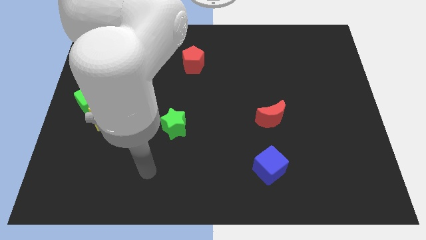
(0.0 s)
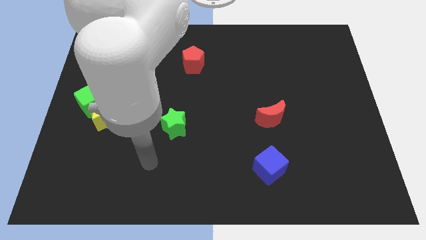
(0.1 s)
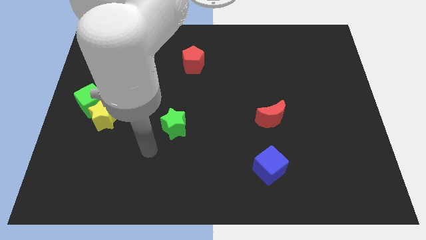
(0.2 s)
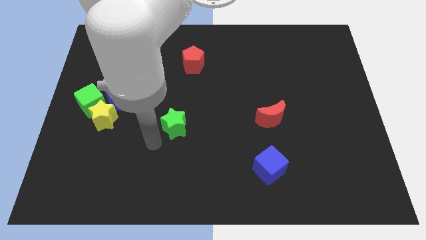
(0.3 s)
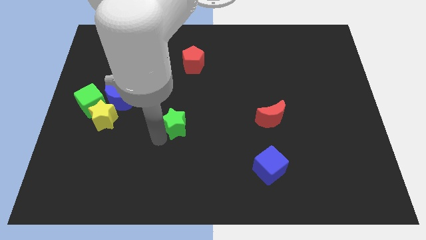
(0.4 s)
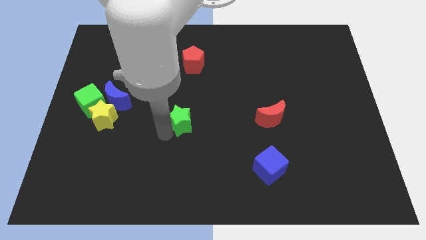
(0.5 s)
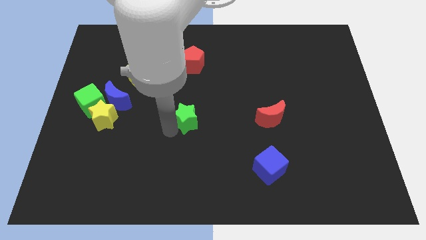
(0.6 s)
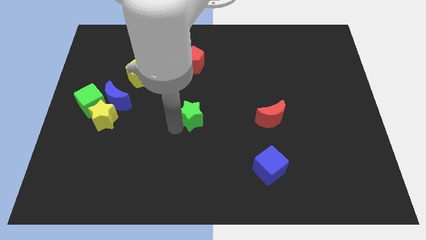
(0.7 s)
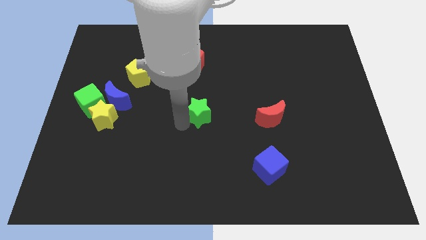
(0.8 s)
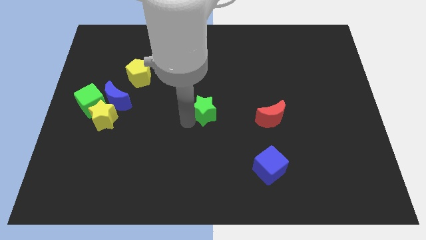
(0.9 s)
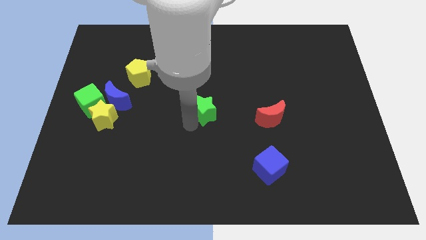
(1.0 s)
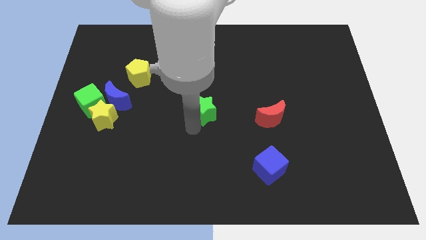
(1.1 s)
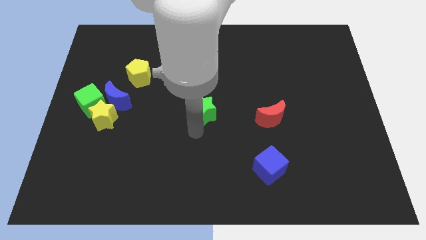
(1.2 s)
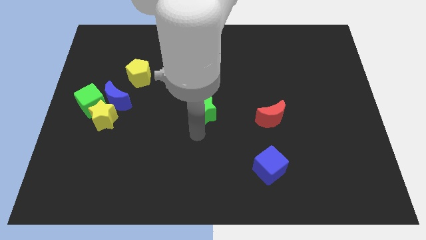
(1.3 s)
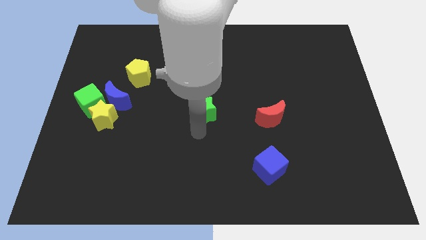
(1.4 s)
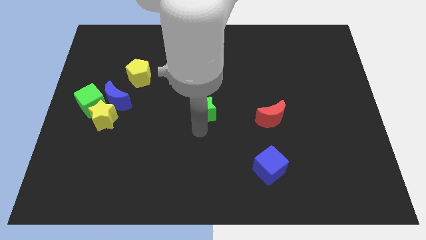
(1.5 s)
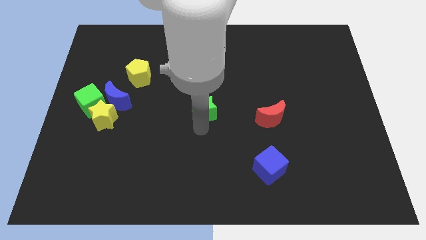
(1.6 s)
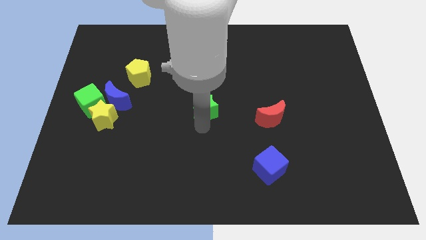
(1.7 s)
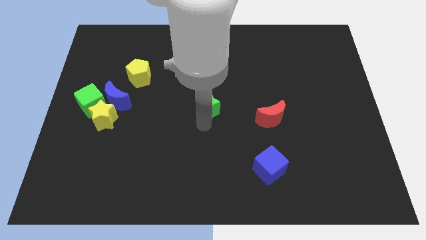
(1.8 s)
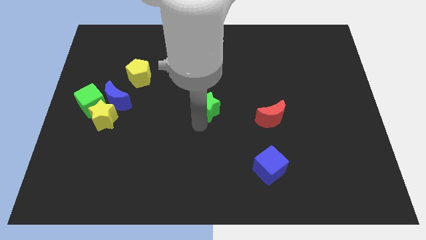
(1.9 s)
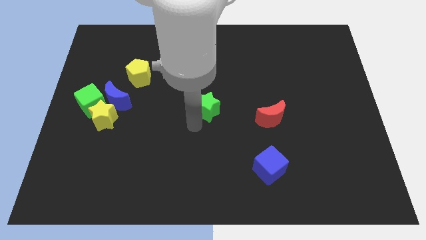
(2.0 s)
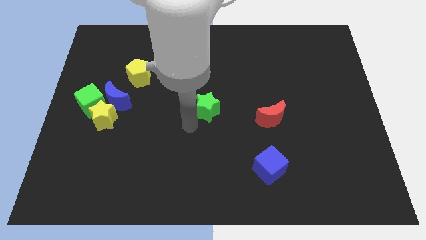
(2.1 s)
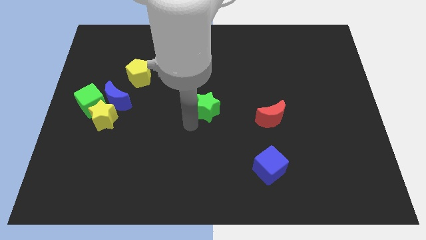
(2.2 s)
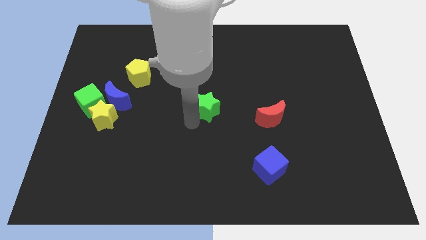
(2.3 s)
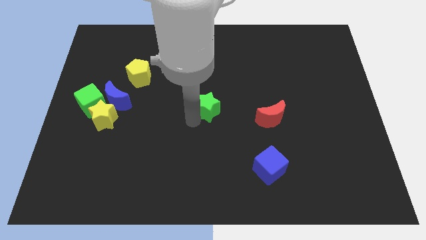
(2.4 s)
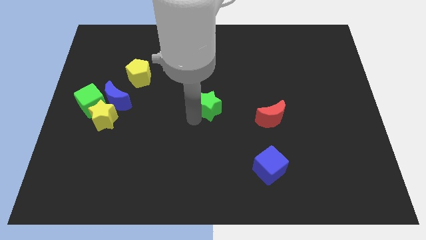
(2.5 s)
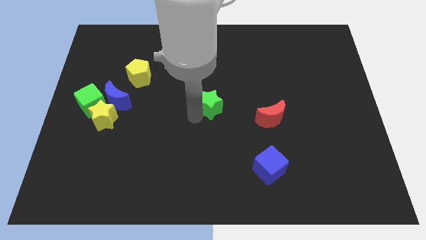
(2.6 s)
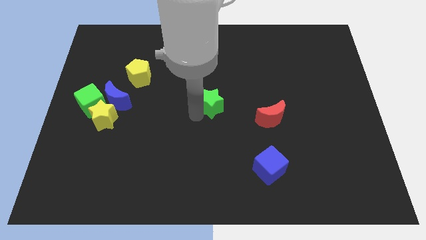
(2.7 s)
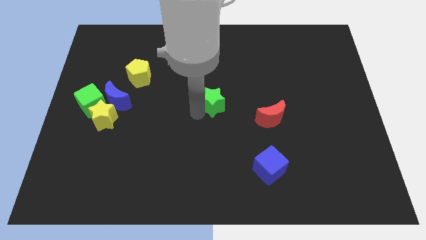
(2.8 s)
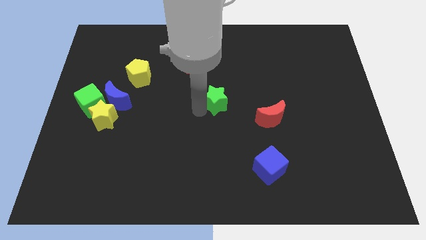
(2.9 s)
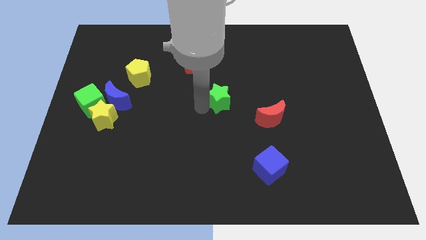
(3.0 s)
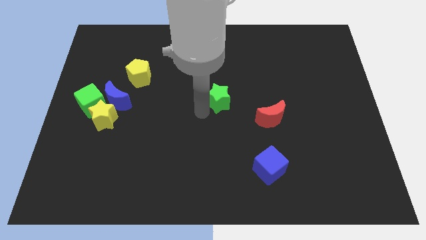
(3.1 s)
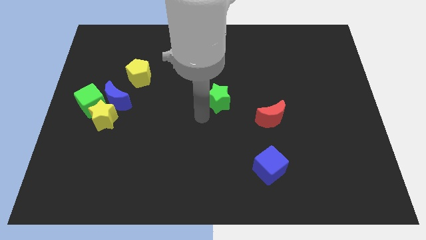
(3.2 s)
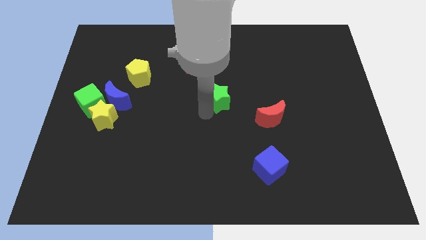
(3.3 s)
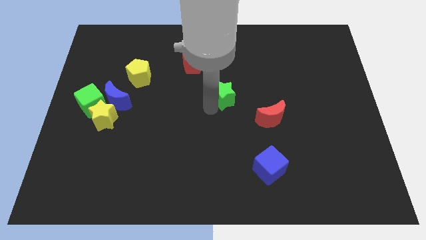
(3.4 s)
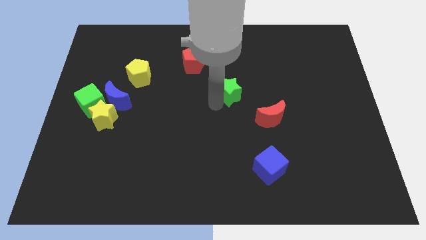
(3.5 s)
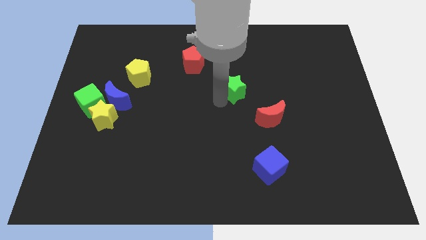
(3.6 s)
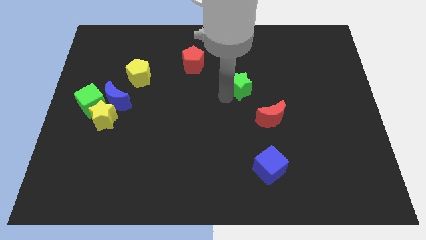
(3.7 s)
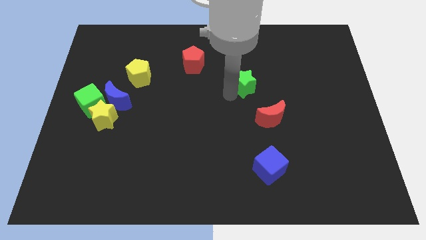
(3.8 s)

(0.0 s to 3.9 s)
slide the green star upwards and right diagonally

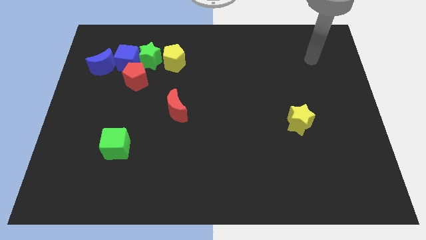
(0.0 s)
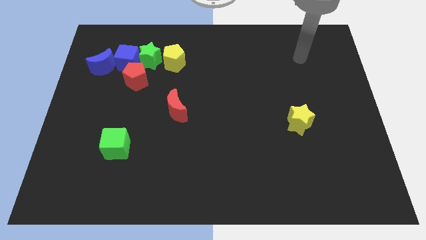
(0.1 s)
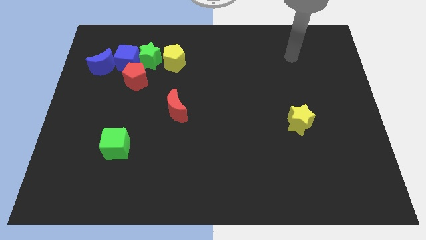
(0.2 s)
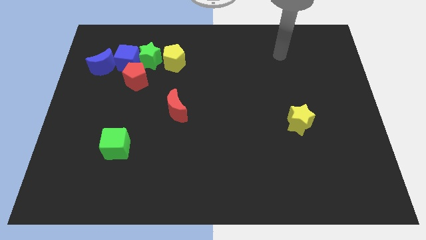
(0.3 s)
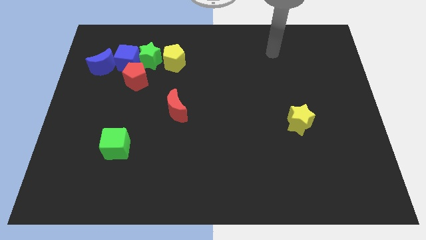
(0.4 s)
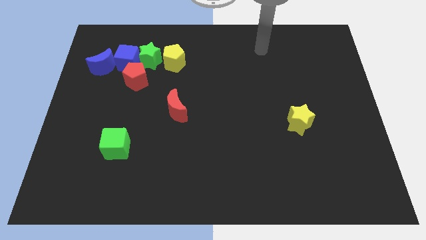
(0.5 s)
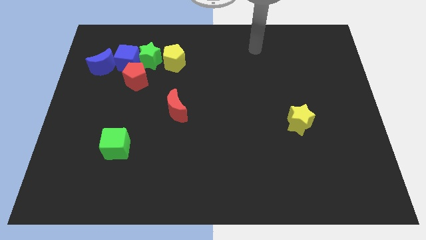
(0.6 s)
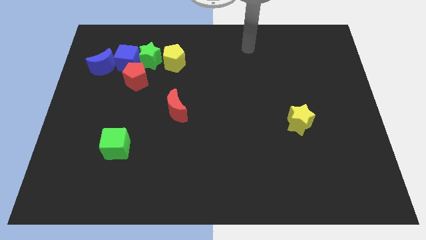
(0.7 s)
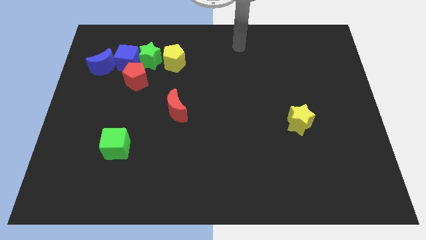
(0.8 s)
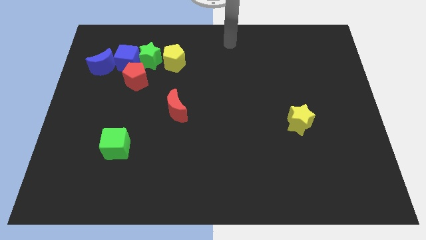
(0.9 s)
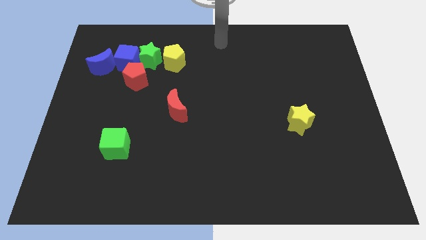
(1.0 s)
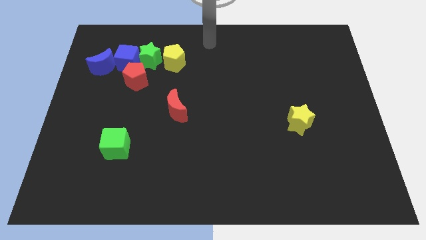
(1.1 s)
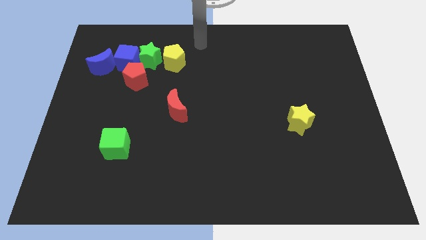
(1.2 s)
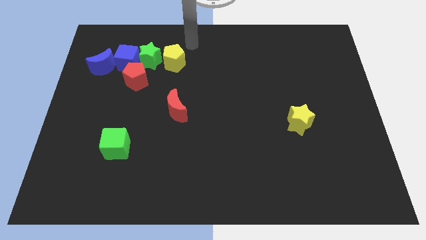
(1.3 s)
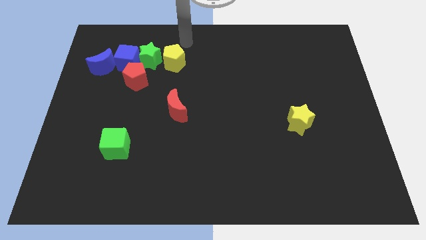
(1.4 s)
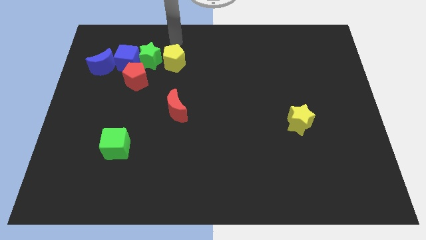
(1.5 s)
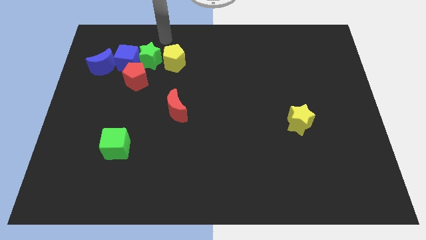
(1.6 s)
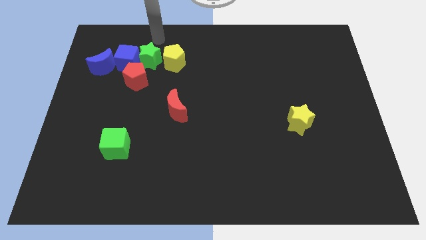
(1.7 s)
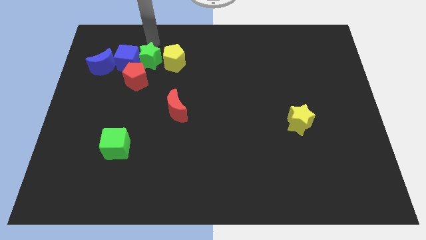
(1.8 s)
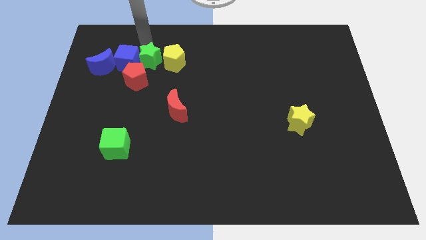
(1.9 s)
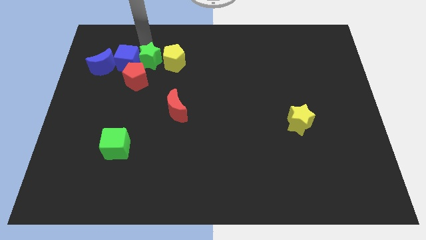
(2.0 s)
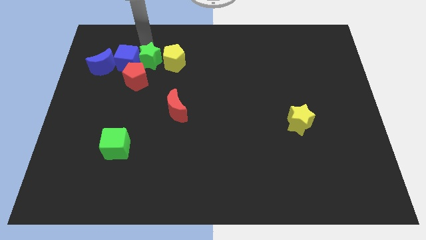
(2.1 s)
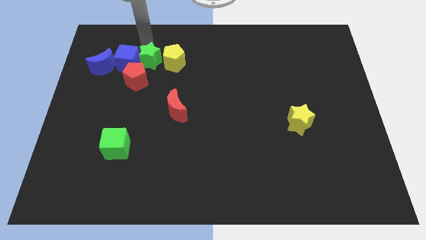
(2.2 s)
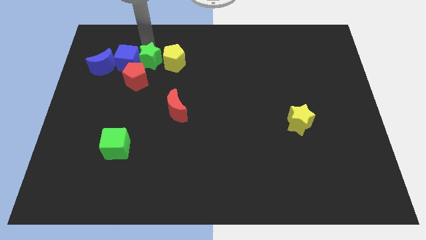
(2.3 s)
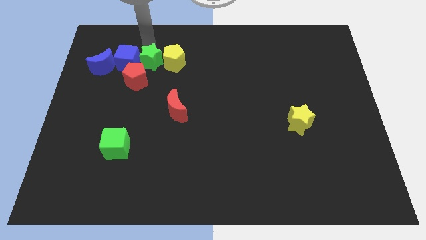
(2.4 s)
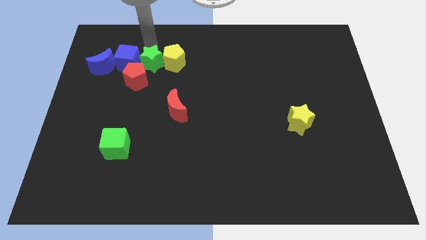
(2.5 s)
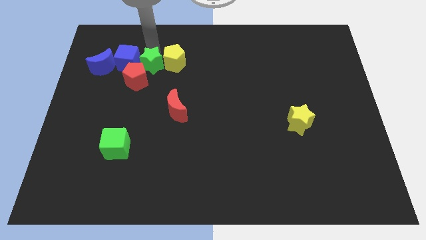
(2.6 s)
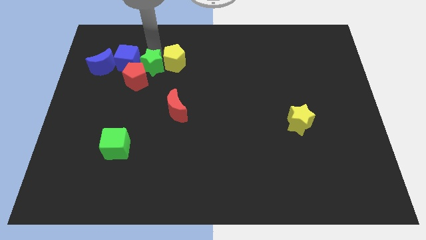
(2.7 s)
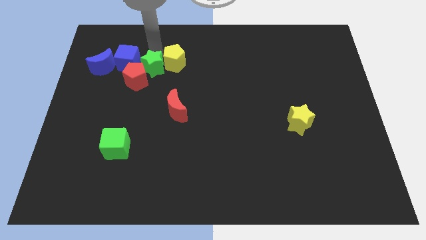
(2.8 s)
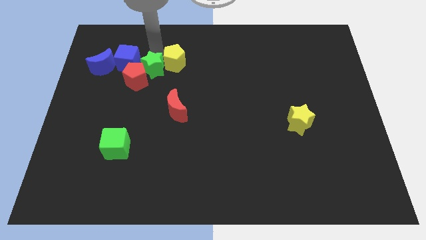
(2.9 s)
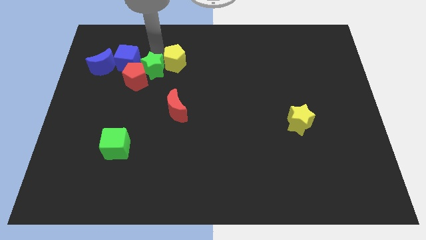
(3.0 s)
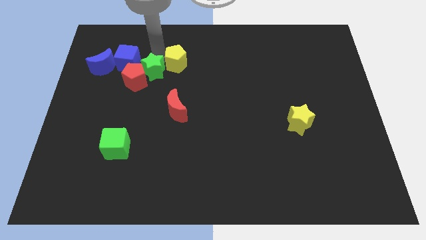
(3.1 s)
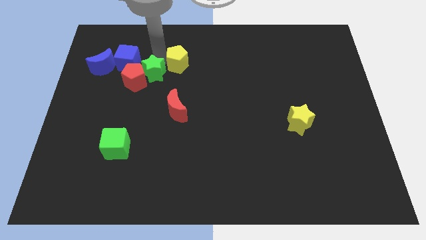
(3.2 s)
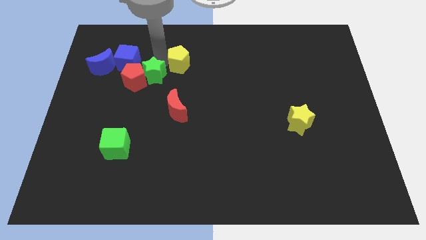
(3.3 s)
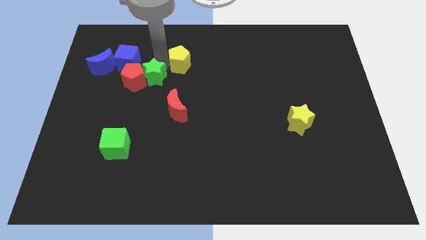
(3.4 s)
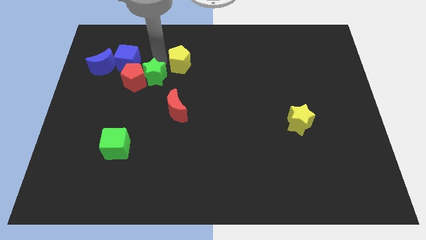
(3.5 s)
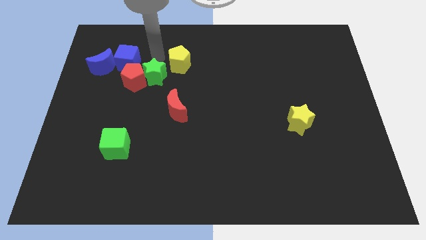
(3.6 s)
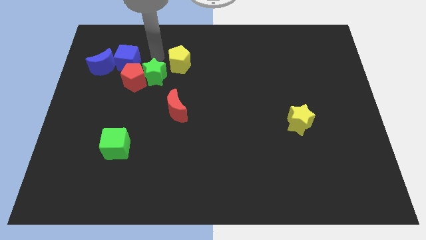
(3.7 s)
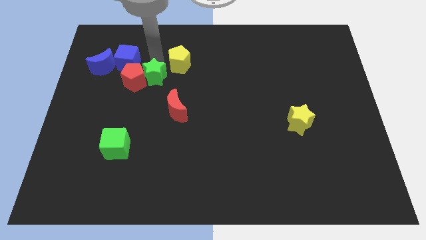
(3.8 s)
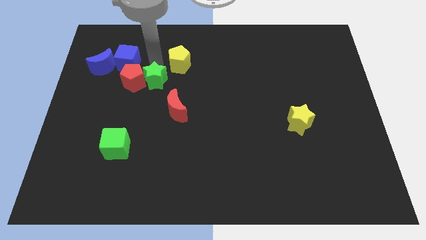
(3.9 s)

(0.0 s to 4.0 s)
slightly push the green star downwards

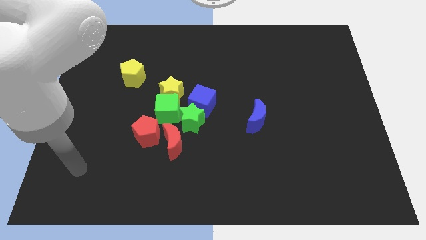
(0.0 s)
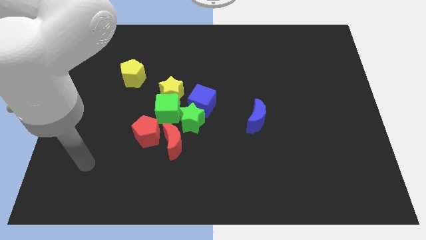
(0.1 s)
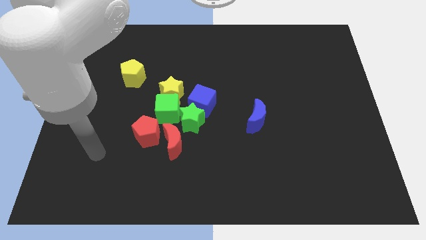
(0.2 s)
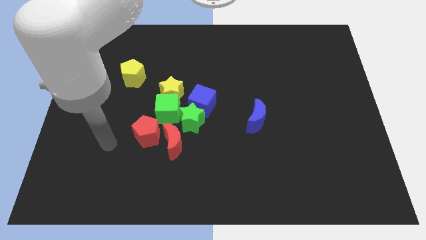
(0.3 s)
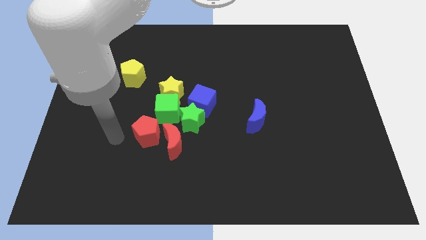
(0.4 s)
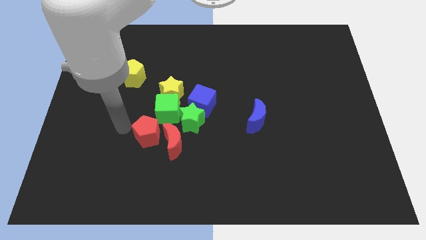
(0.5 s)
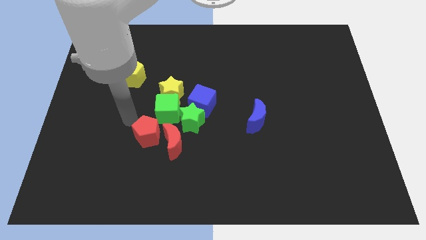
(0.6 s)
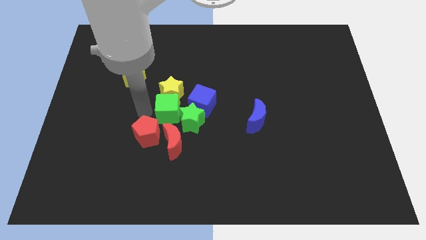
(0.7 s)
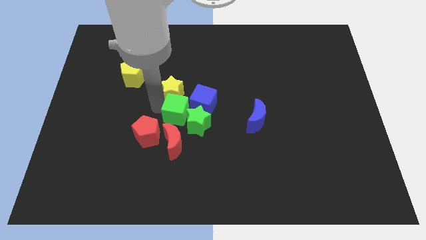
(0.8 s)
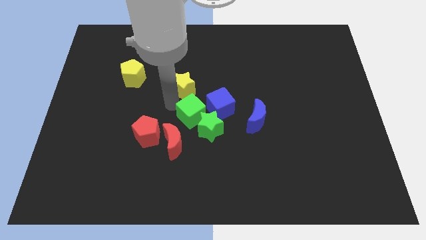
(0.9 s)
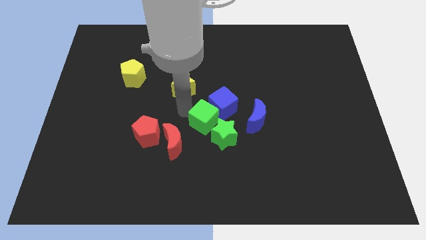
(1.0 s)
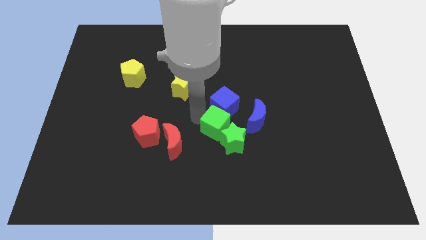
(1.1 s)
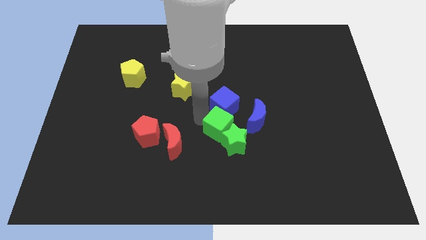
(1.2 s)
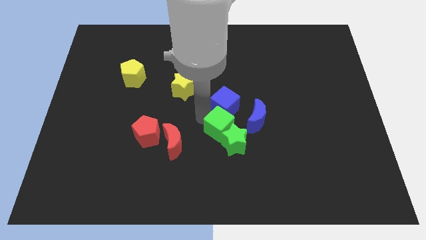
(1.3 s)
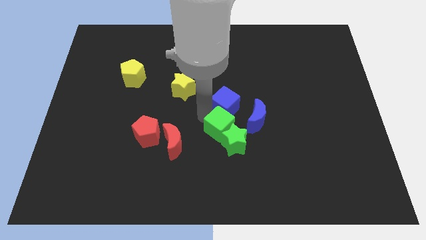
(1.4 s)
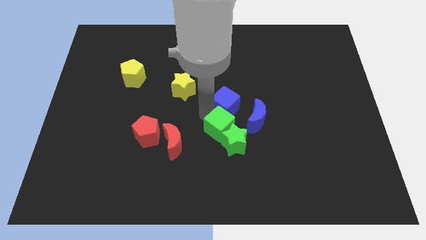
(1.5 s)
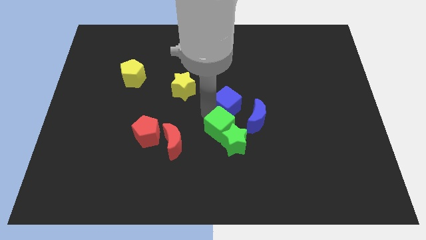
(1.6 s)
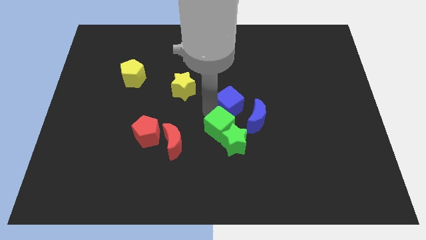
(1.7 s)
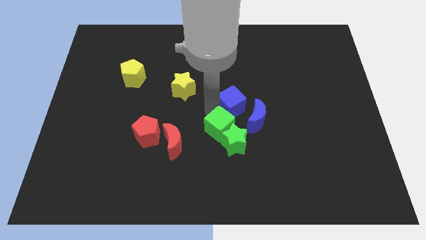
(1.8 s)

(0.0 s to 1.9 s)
slightly slide the blue cube right
